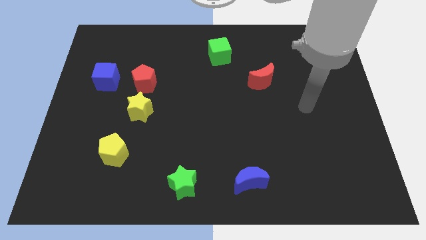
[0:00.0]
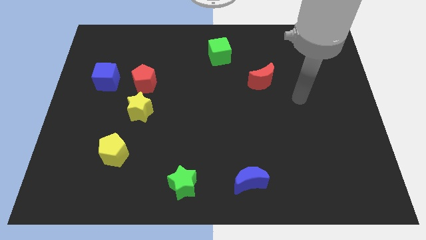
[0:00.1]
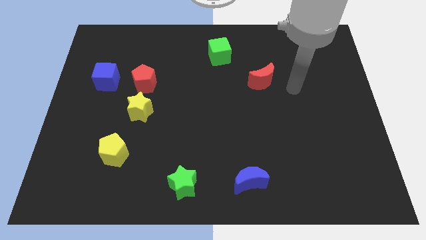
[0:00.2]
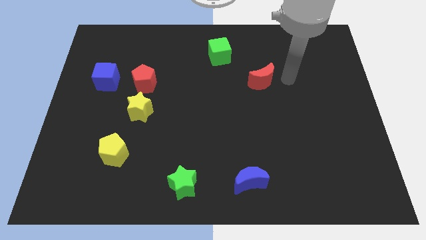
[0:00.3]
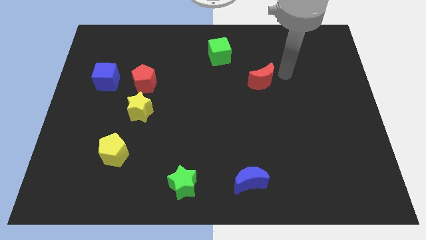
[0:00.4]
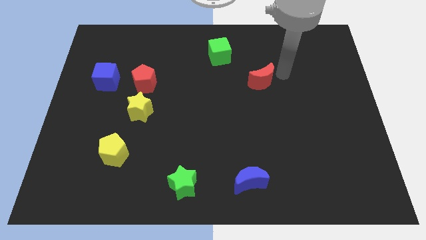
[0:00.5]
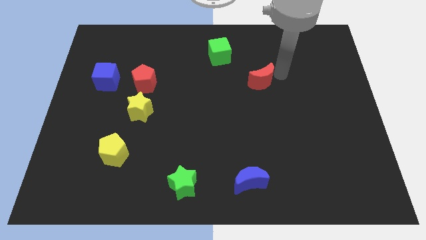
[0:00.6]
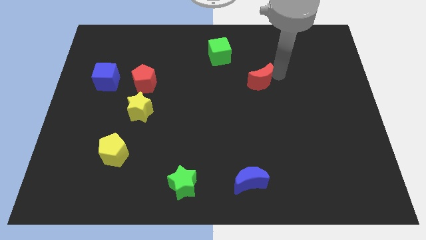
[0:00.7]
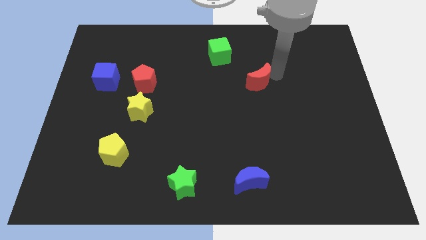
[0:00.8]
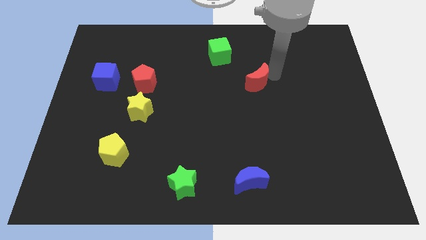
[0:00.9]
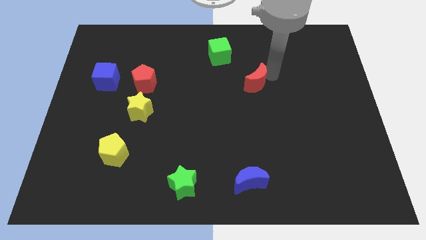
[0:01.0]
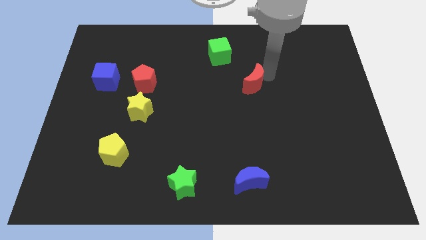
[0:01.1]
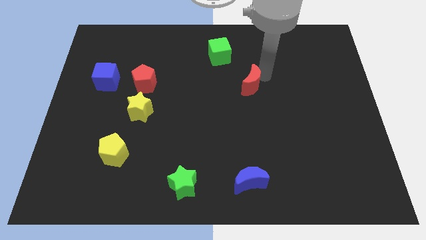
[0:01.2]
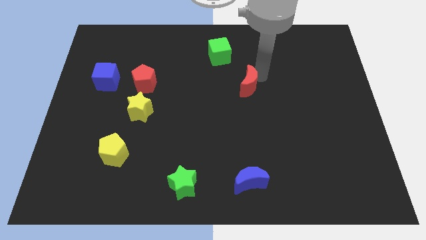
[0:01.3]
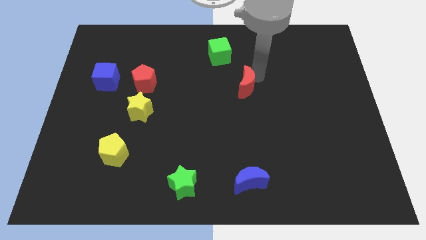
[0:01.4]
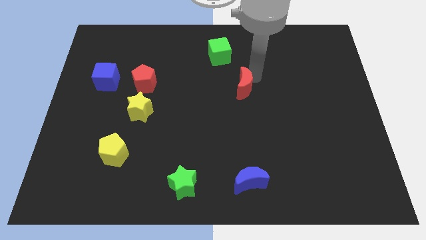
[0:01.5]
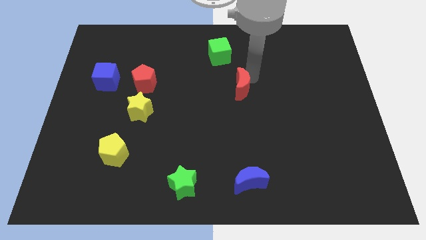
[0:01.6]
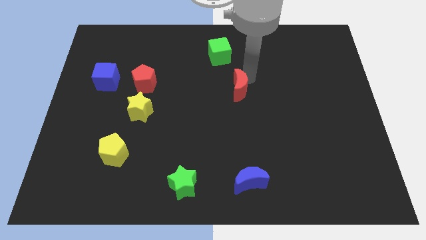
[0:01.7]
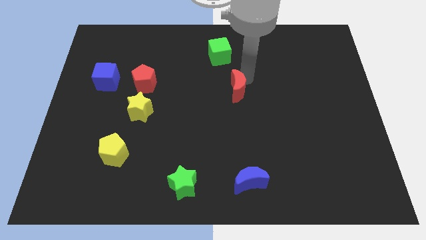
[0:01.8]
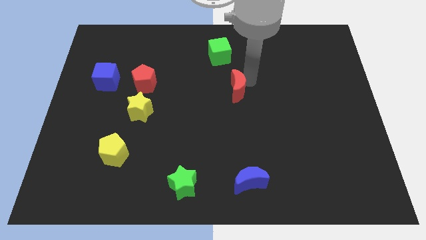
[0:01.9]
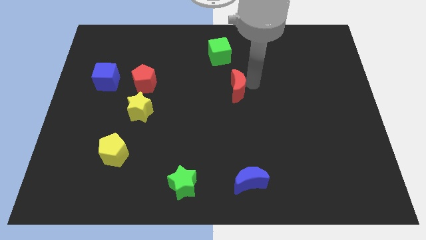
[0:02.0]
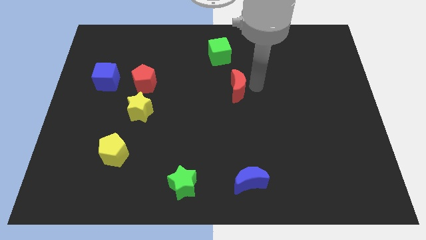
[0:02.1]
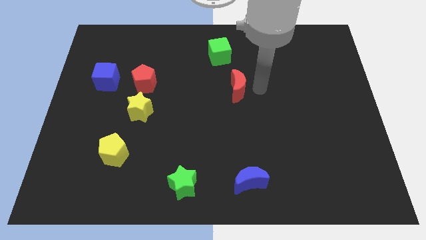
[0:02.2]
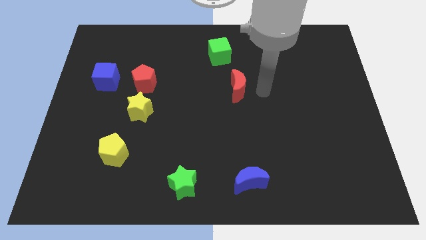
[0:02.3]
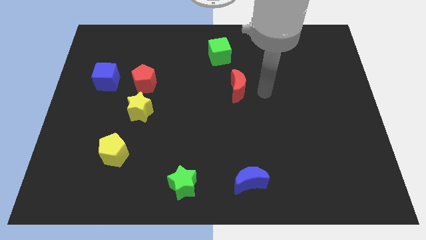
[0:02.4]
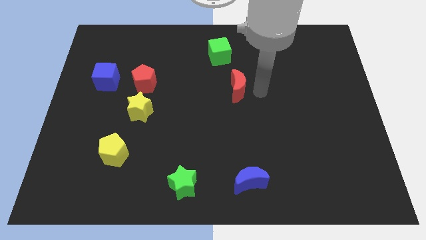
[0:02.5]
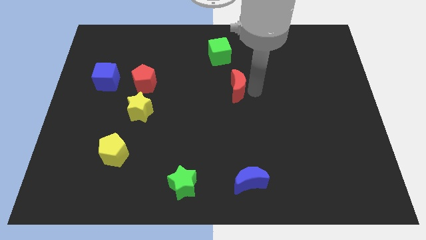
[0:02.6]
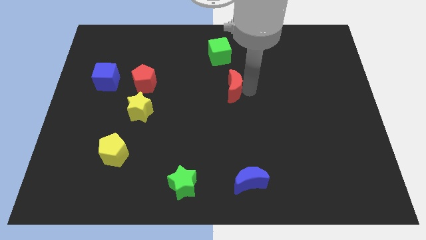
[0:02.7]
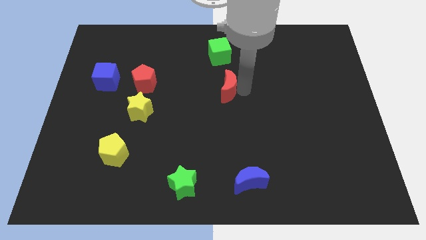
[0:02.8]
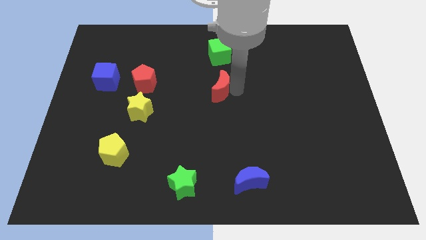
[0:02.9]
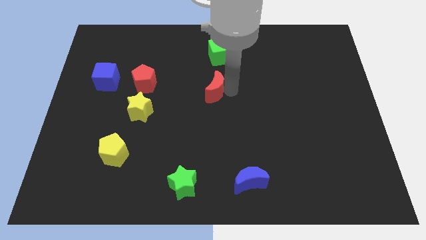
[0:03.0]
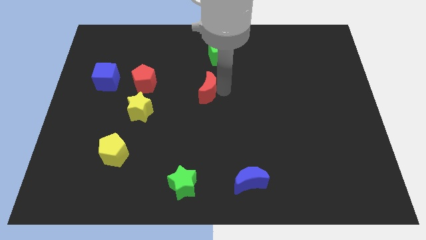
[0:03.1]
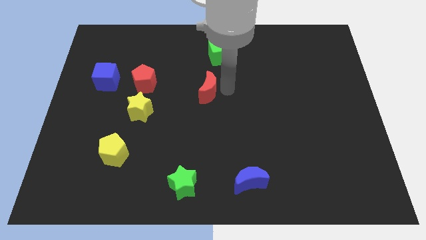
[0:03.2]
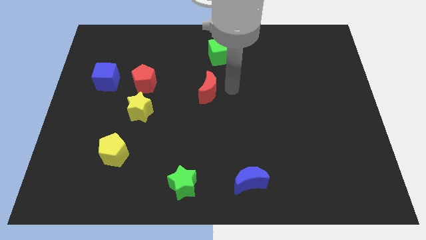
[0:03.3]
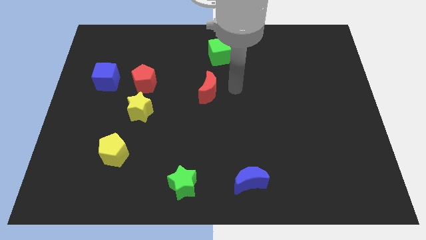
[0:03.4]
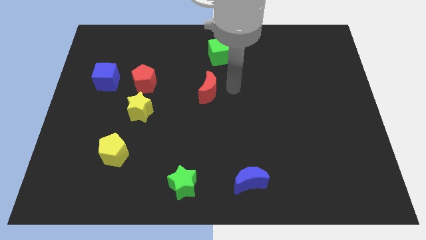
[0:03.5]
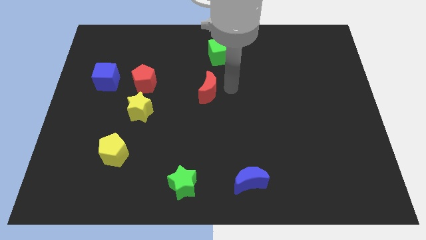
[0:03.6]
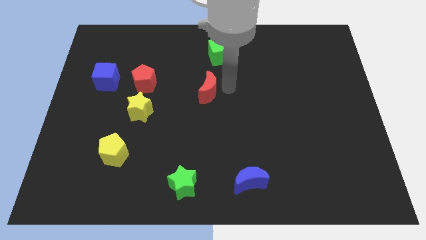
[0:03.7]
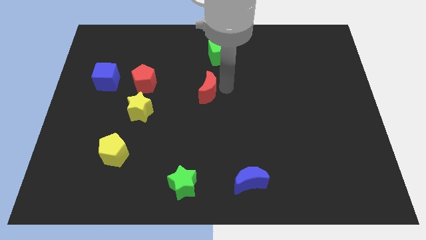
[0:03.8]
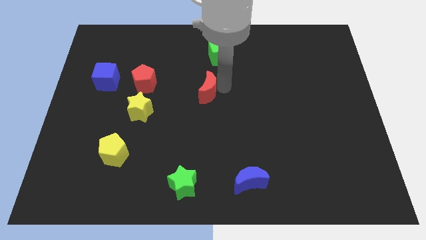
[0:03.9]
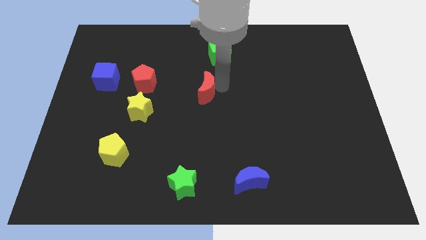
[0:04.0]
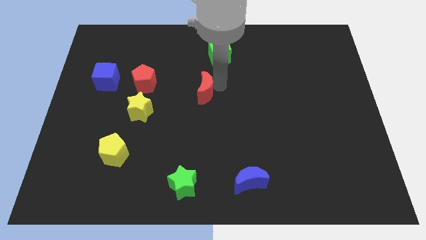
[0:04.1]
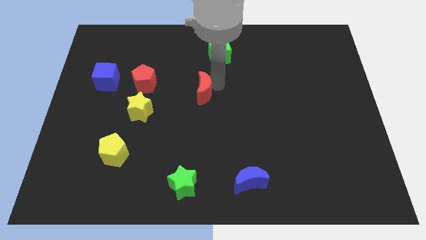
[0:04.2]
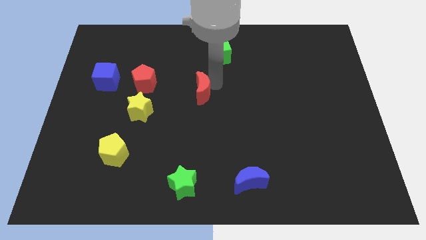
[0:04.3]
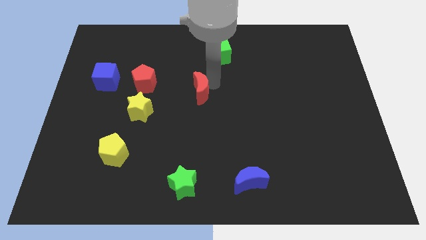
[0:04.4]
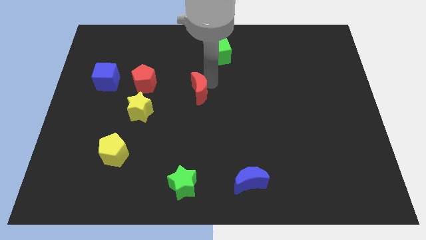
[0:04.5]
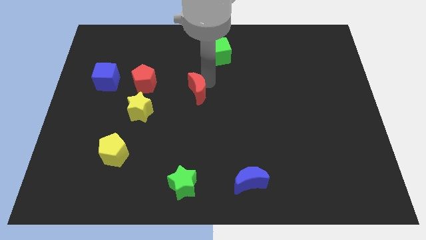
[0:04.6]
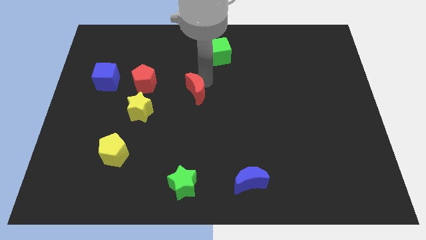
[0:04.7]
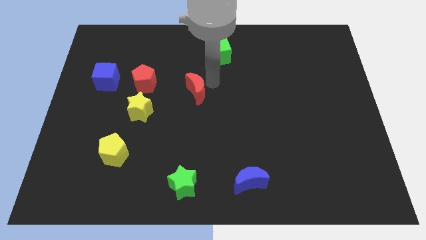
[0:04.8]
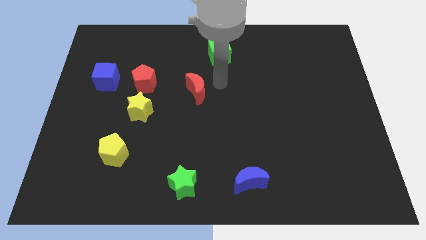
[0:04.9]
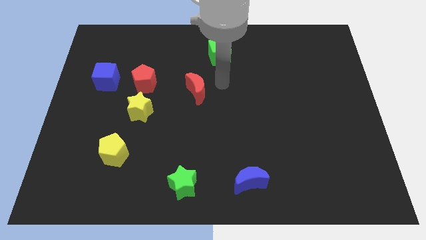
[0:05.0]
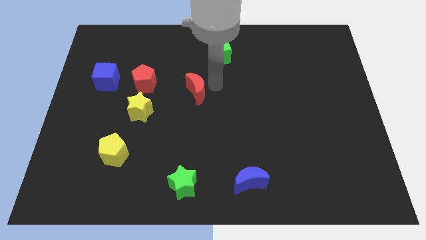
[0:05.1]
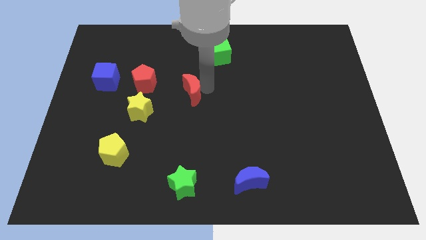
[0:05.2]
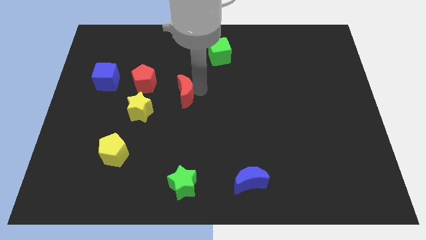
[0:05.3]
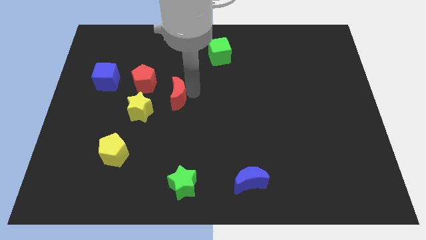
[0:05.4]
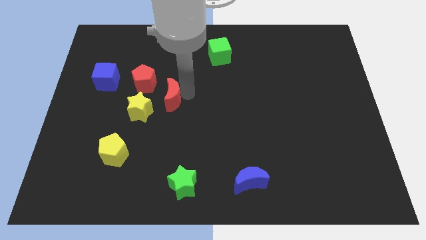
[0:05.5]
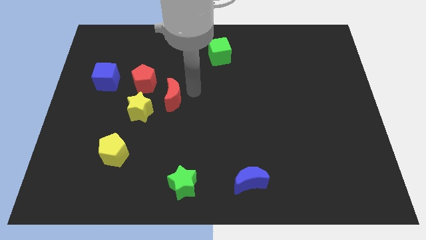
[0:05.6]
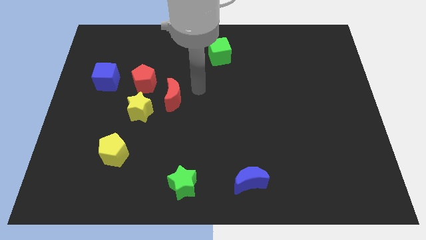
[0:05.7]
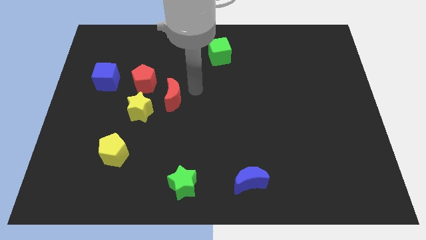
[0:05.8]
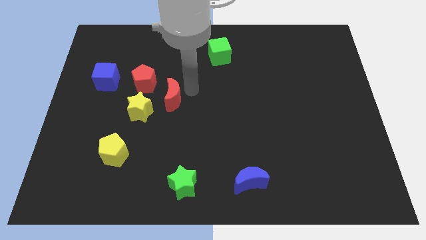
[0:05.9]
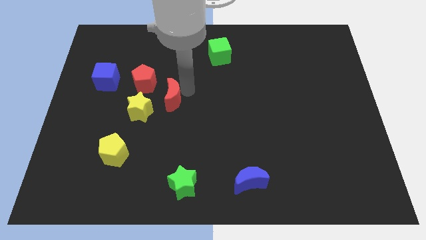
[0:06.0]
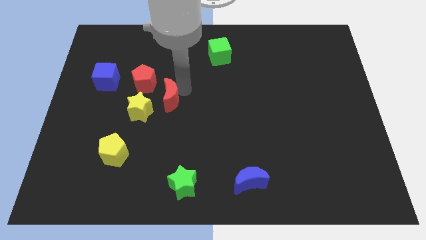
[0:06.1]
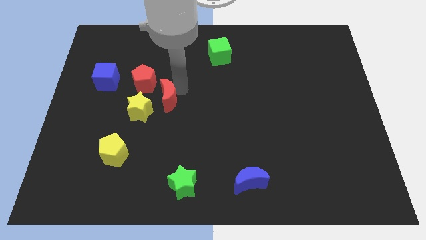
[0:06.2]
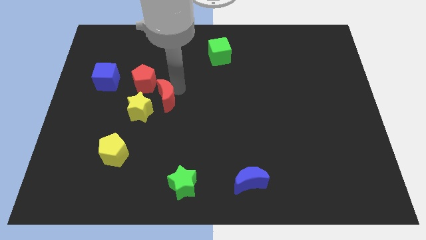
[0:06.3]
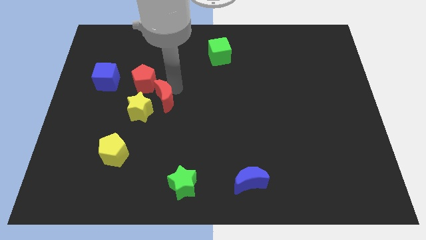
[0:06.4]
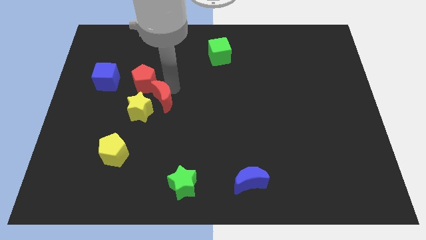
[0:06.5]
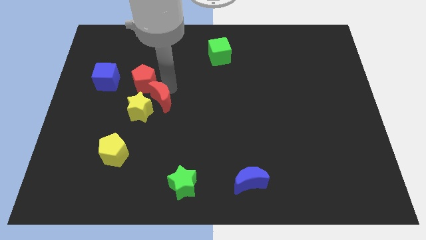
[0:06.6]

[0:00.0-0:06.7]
push the red moon to the yellow star

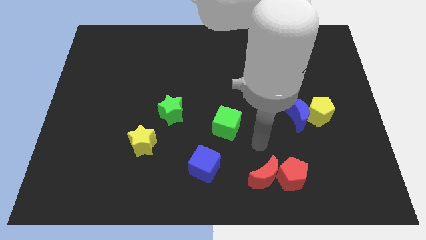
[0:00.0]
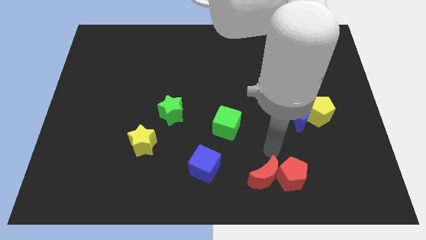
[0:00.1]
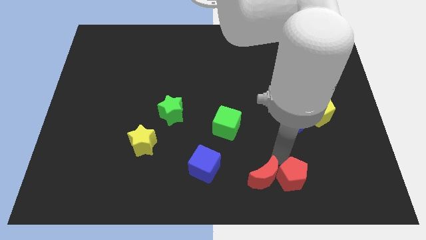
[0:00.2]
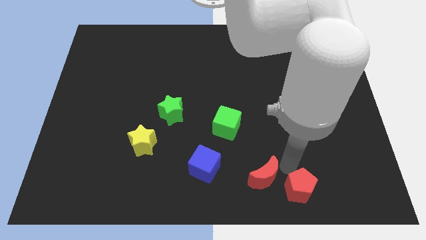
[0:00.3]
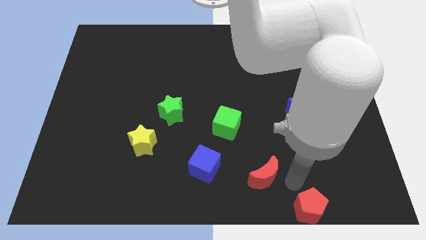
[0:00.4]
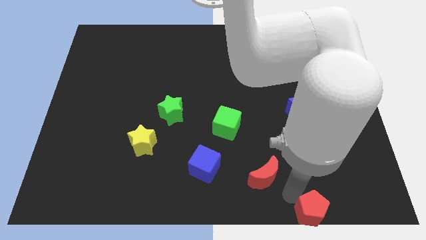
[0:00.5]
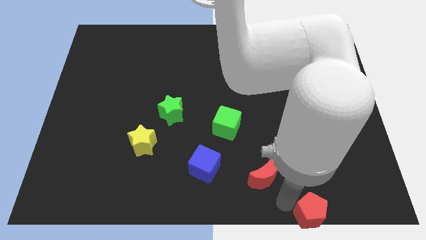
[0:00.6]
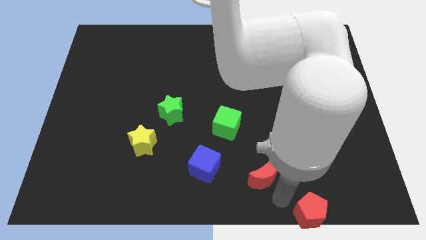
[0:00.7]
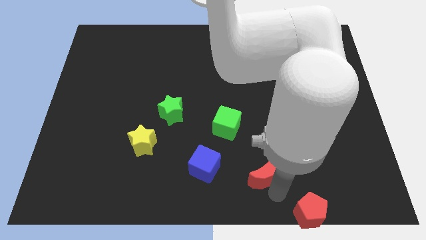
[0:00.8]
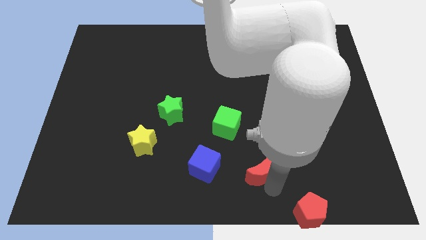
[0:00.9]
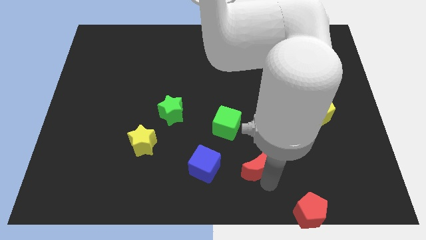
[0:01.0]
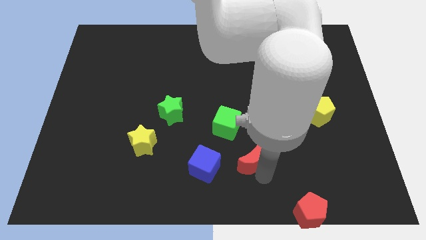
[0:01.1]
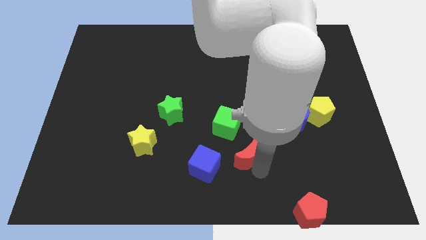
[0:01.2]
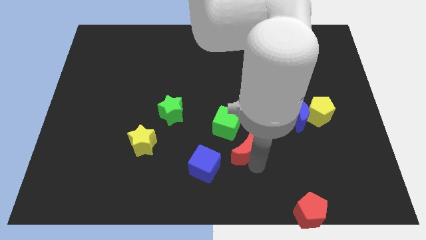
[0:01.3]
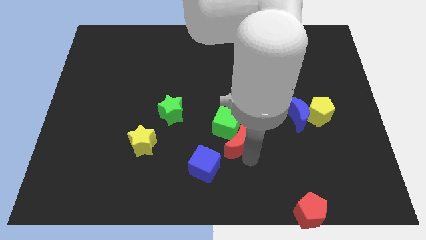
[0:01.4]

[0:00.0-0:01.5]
slide the red moon towards the green cube
